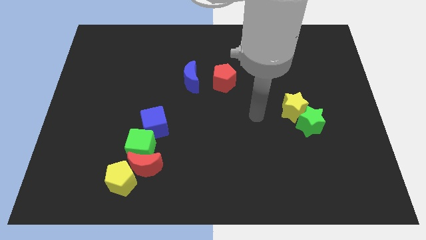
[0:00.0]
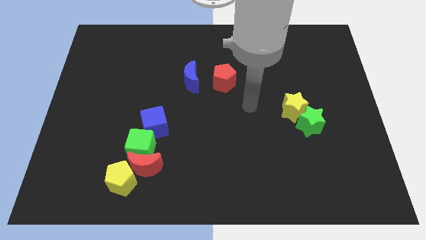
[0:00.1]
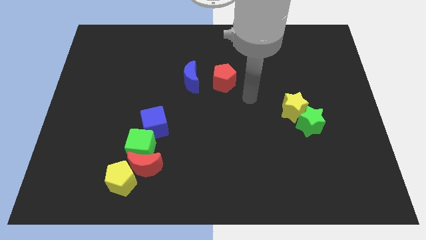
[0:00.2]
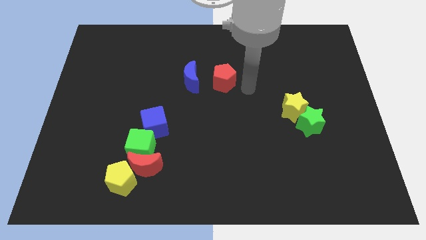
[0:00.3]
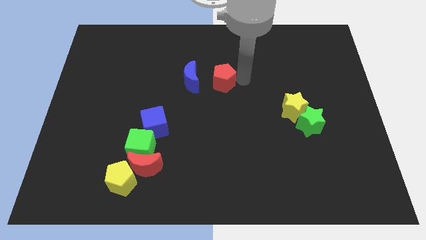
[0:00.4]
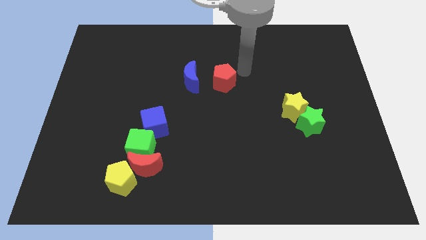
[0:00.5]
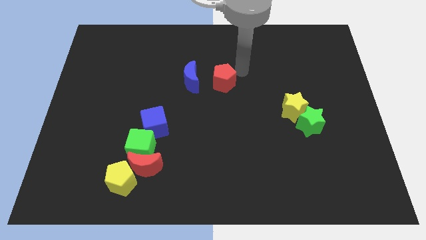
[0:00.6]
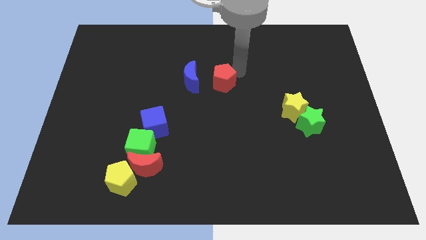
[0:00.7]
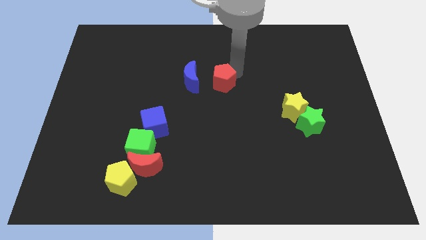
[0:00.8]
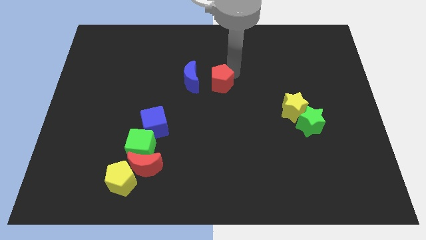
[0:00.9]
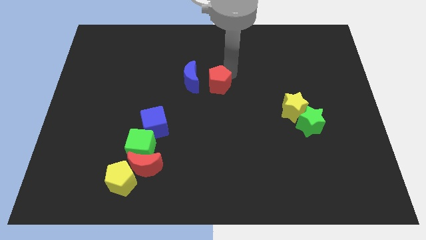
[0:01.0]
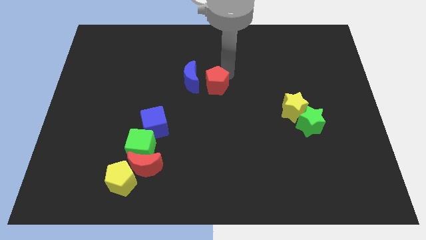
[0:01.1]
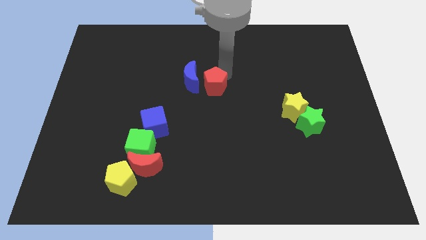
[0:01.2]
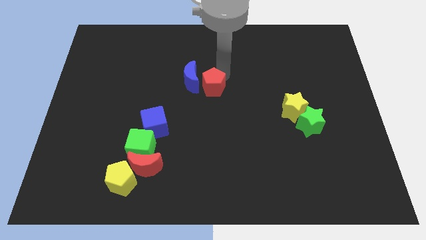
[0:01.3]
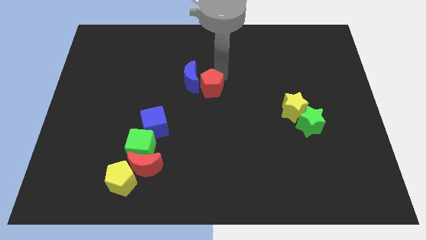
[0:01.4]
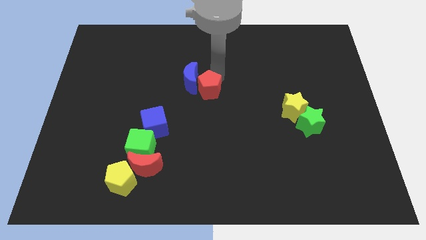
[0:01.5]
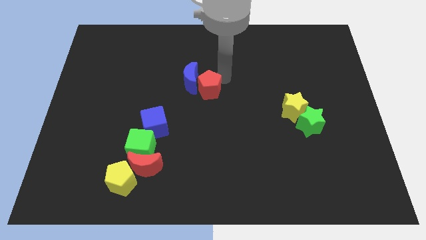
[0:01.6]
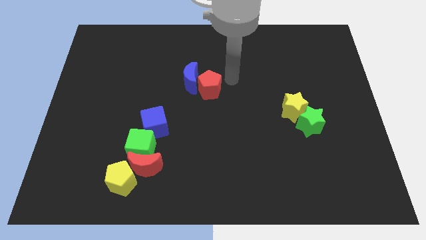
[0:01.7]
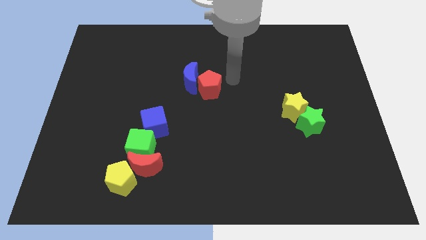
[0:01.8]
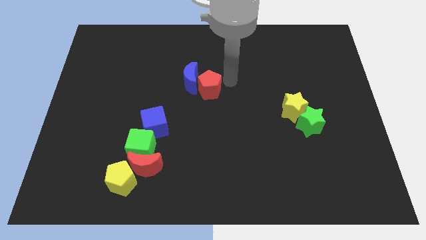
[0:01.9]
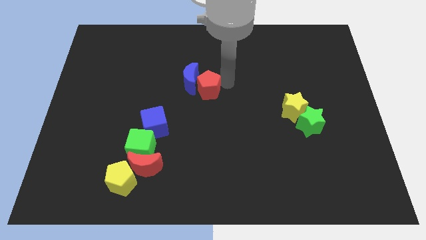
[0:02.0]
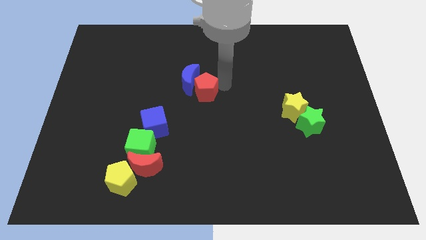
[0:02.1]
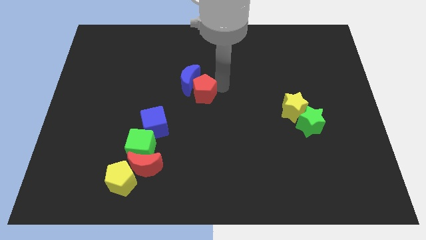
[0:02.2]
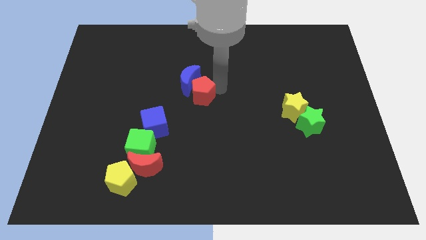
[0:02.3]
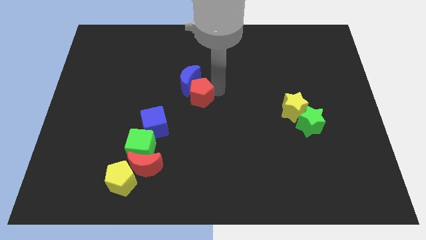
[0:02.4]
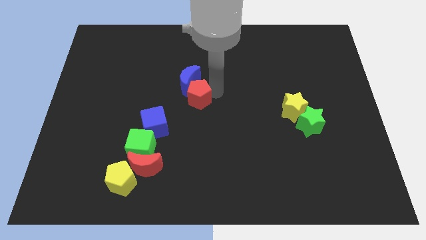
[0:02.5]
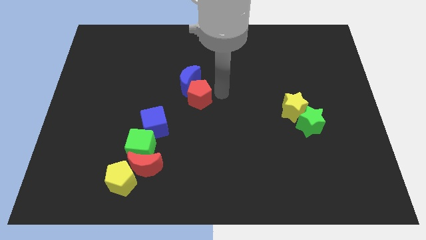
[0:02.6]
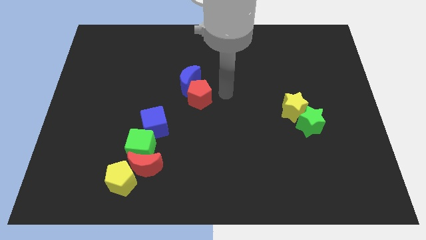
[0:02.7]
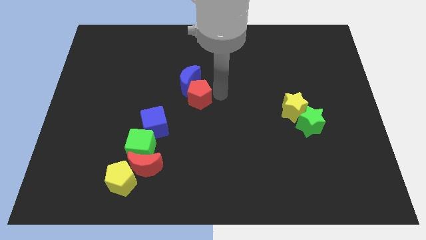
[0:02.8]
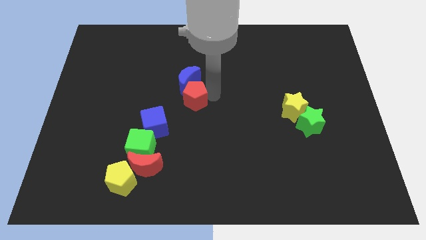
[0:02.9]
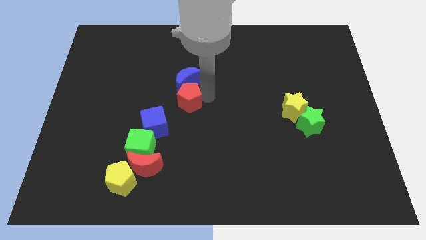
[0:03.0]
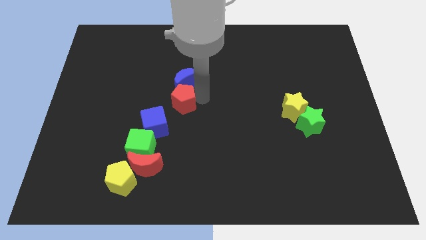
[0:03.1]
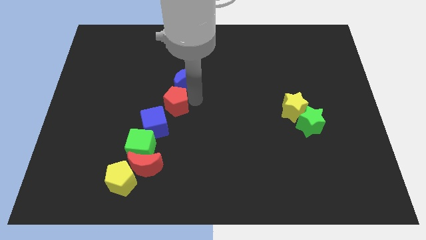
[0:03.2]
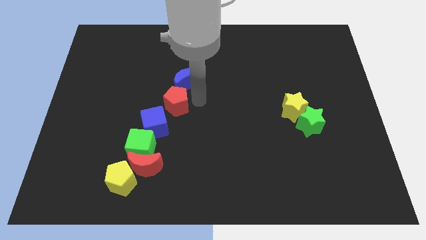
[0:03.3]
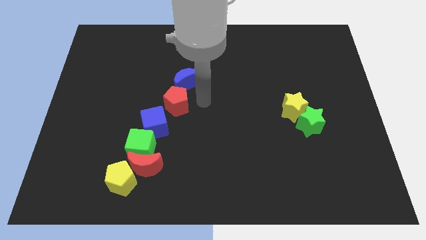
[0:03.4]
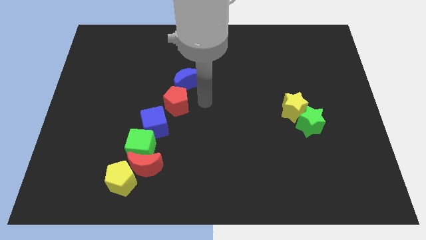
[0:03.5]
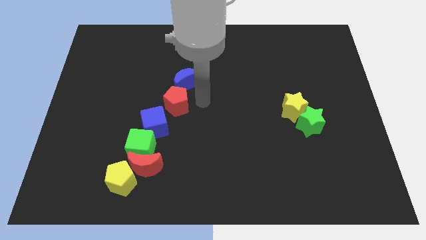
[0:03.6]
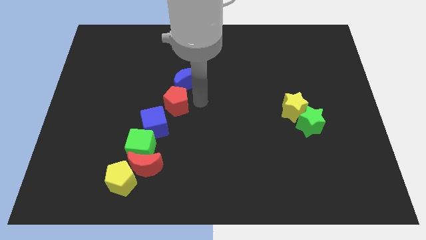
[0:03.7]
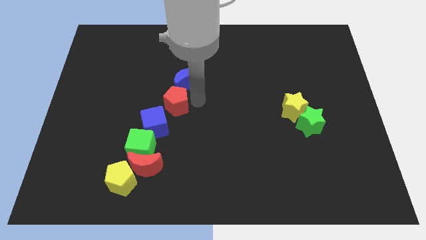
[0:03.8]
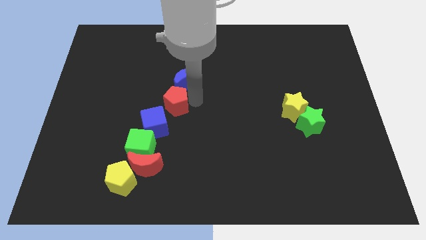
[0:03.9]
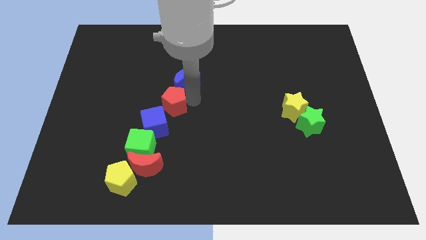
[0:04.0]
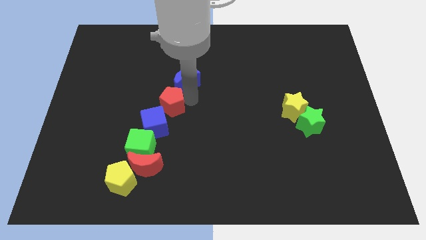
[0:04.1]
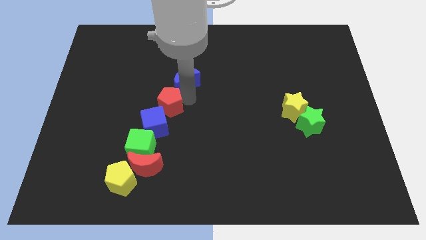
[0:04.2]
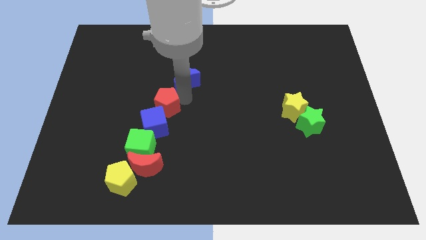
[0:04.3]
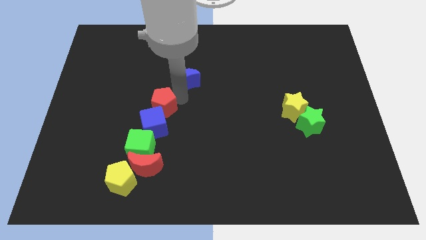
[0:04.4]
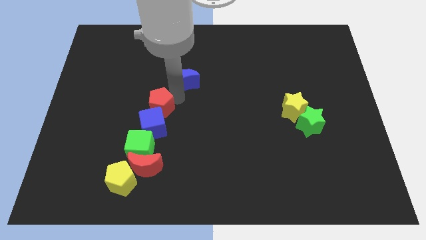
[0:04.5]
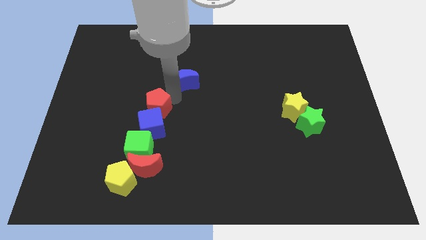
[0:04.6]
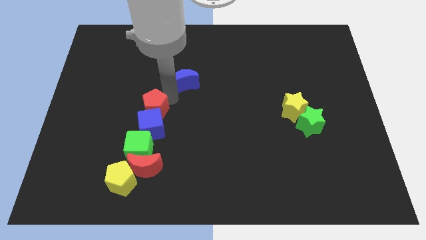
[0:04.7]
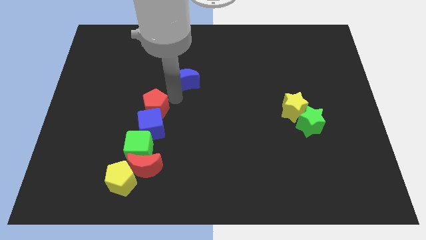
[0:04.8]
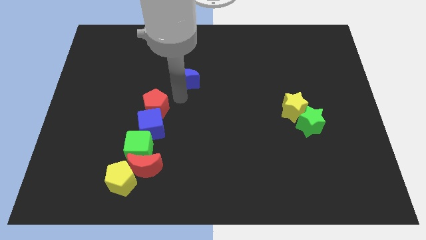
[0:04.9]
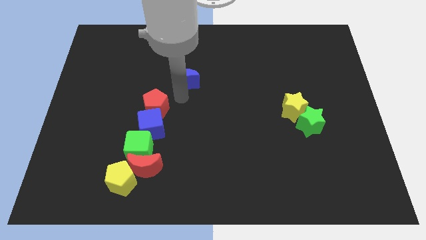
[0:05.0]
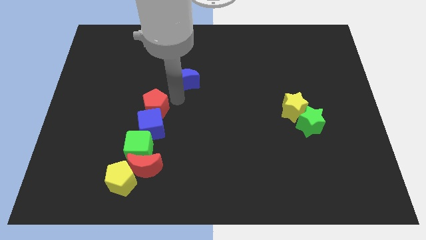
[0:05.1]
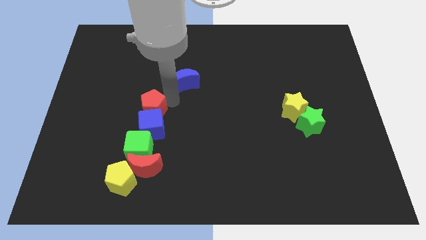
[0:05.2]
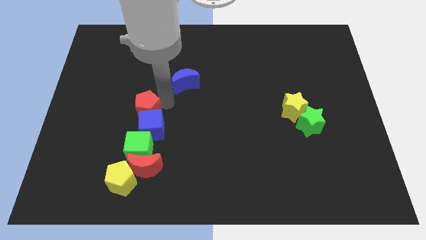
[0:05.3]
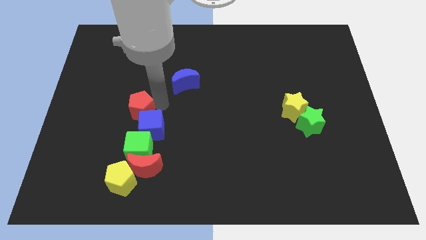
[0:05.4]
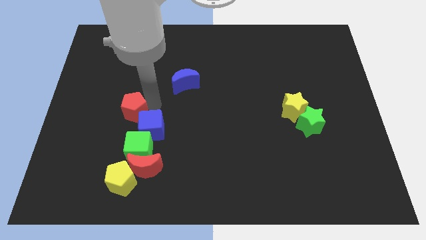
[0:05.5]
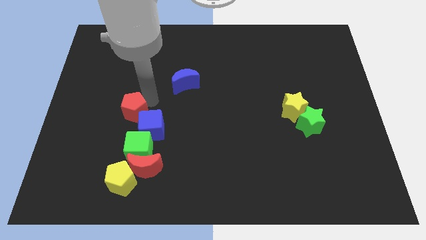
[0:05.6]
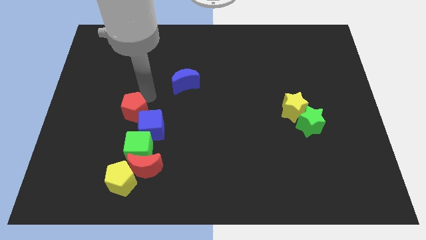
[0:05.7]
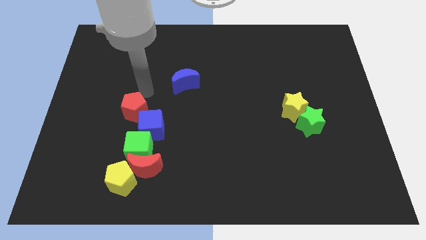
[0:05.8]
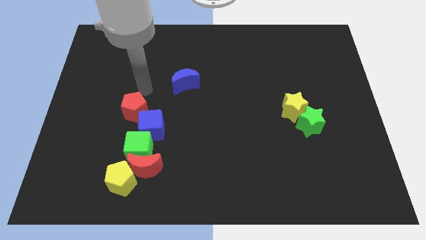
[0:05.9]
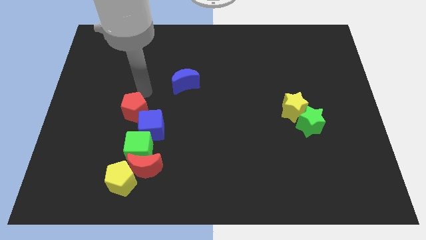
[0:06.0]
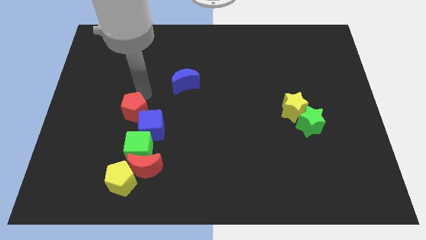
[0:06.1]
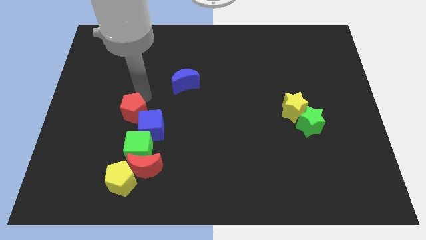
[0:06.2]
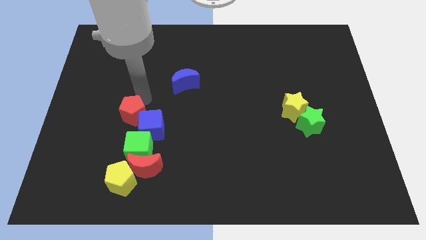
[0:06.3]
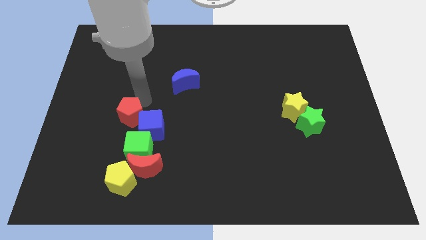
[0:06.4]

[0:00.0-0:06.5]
slide the red pentagon diagonally downwards and left

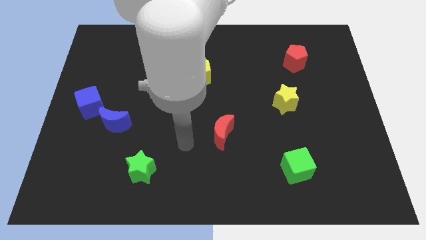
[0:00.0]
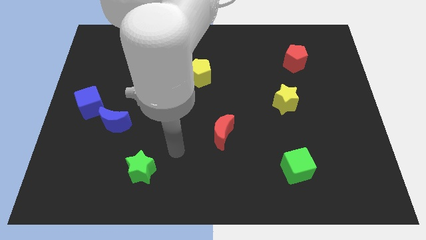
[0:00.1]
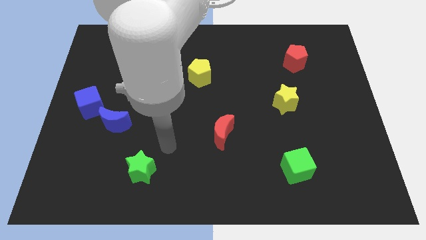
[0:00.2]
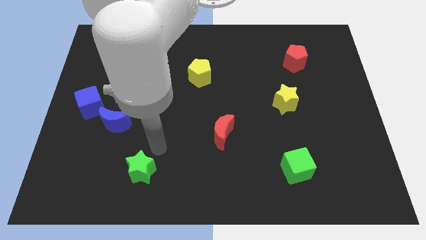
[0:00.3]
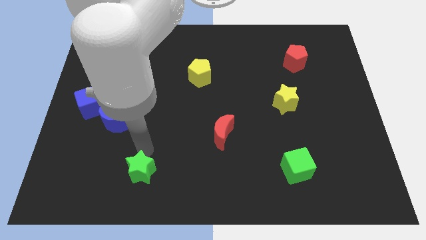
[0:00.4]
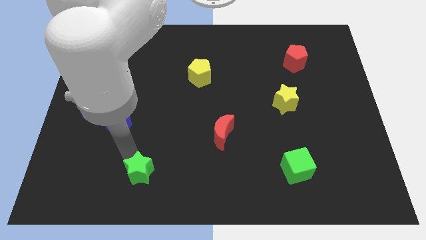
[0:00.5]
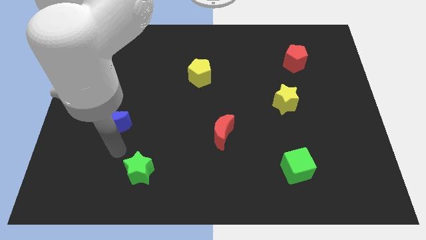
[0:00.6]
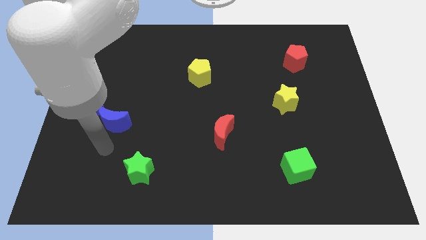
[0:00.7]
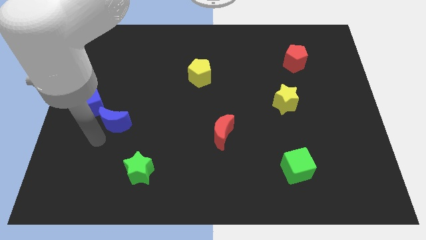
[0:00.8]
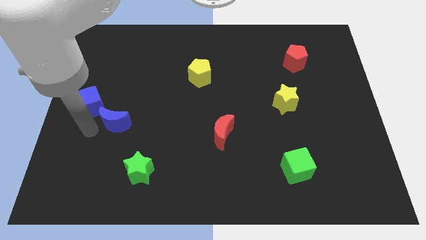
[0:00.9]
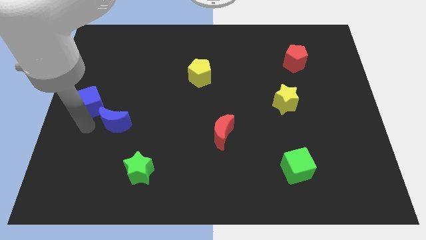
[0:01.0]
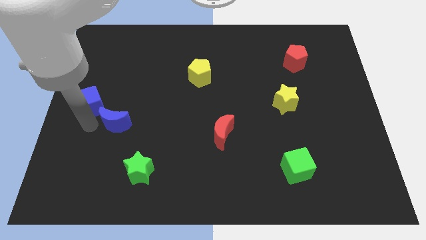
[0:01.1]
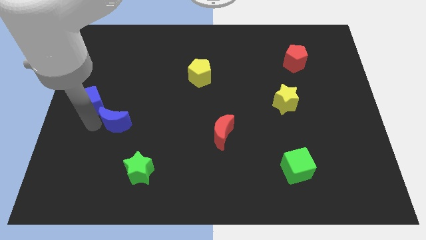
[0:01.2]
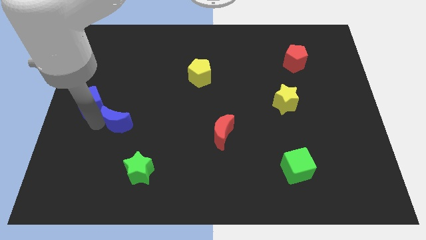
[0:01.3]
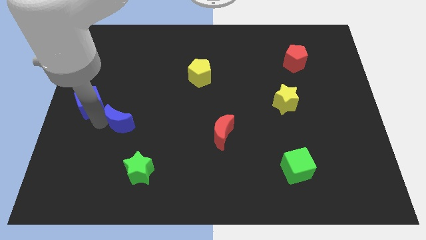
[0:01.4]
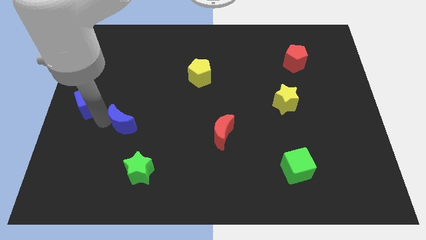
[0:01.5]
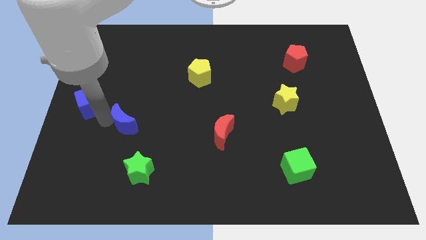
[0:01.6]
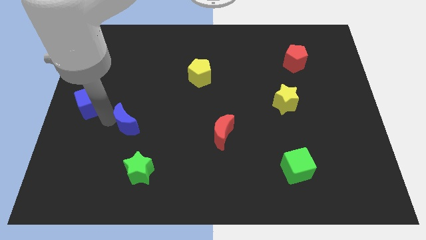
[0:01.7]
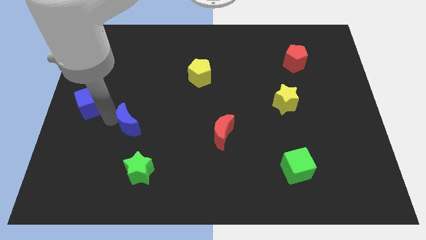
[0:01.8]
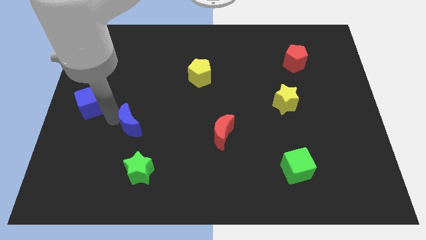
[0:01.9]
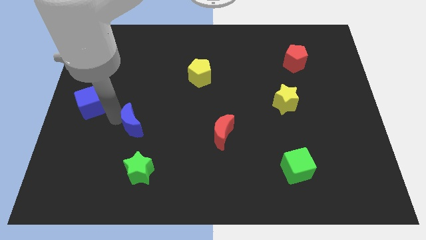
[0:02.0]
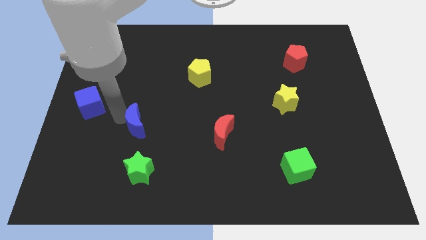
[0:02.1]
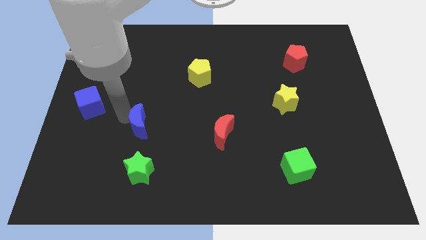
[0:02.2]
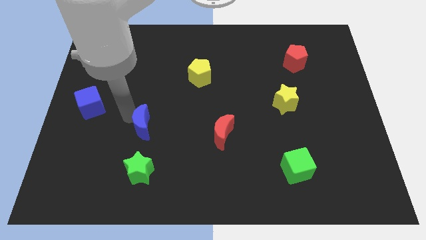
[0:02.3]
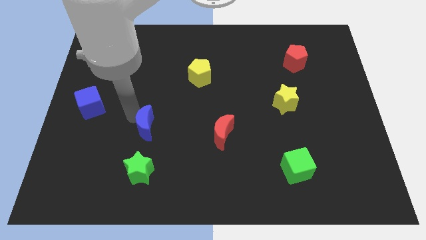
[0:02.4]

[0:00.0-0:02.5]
slide the blue moon to the right a bit
